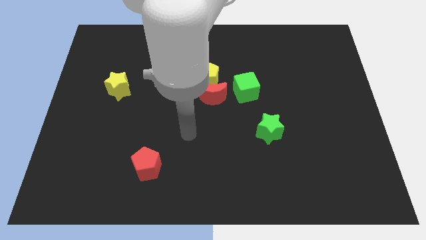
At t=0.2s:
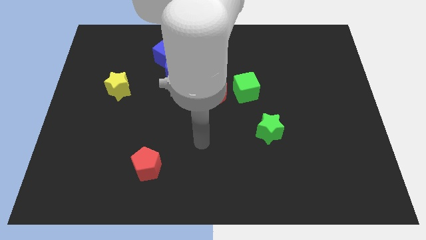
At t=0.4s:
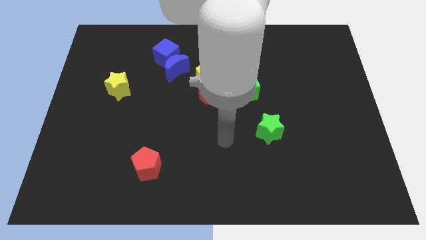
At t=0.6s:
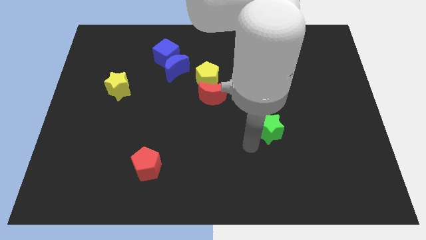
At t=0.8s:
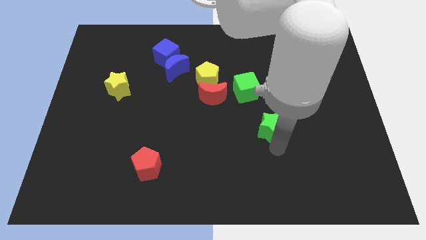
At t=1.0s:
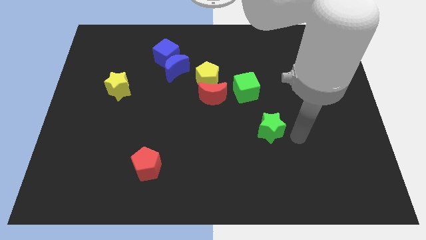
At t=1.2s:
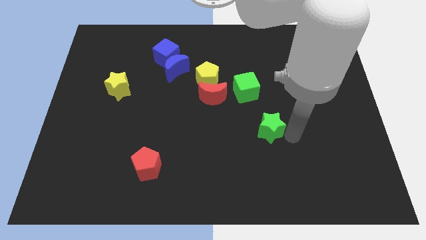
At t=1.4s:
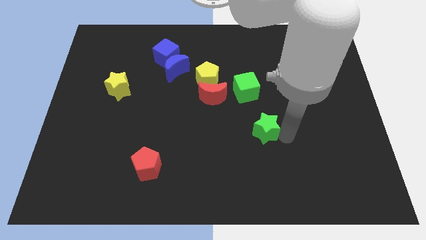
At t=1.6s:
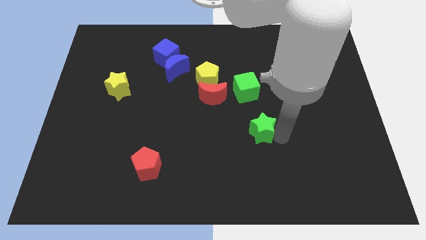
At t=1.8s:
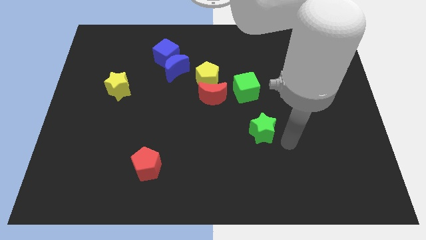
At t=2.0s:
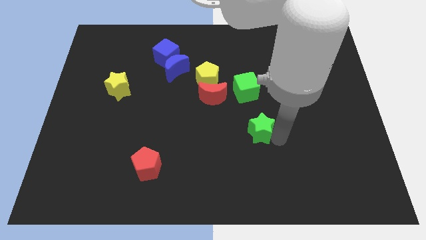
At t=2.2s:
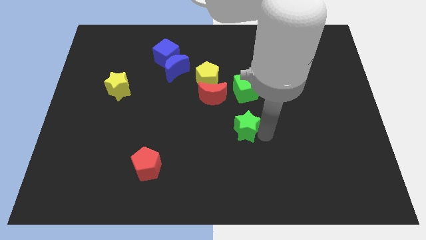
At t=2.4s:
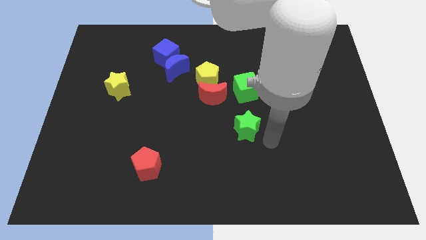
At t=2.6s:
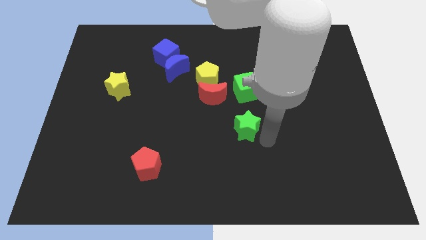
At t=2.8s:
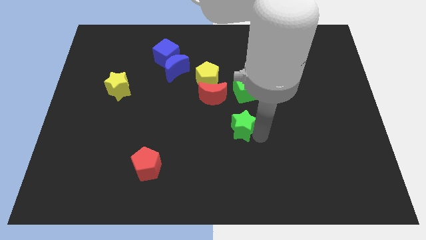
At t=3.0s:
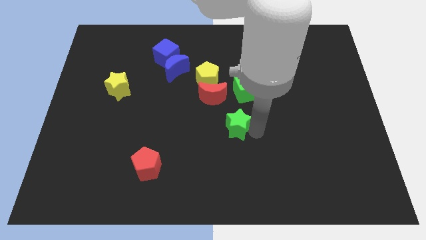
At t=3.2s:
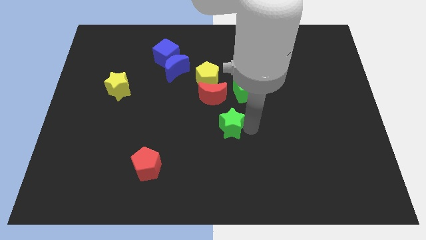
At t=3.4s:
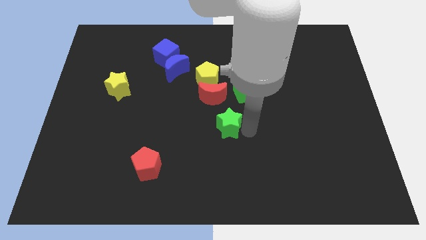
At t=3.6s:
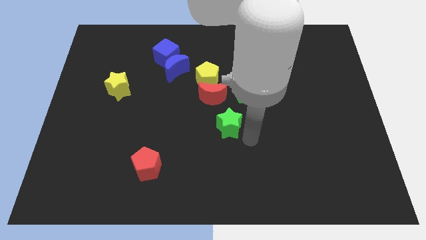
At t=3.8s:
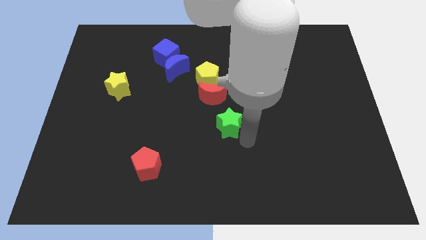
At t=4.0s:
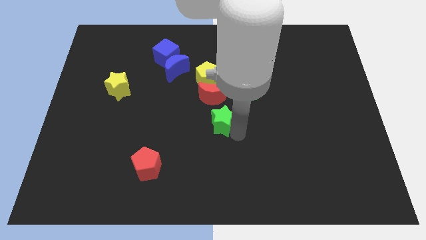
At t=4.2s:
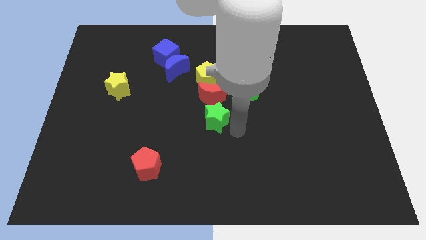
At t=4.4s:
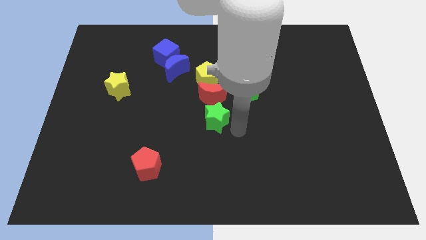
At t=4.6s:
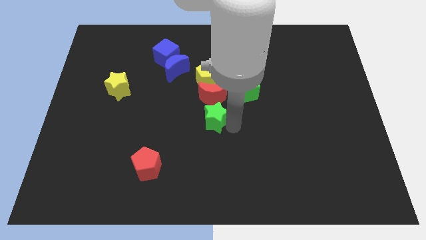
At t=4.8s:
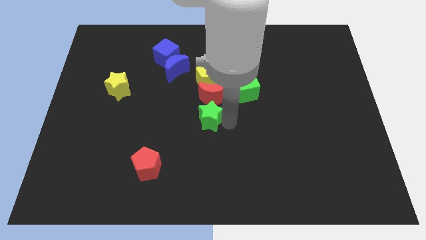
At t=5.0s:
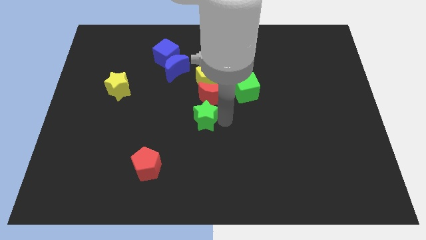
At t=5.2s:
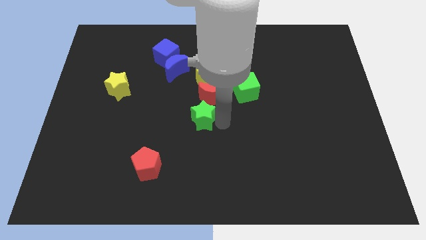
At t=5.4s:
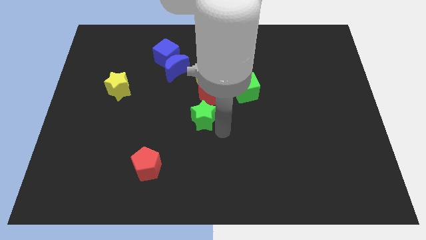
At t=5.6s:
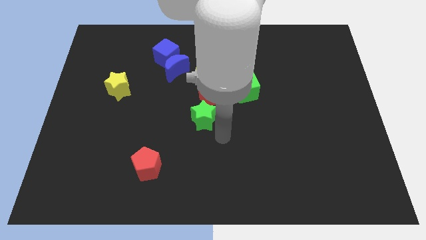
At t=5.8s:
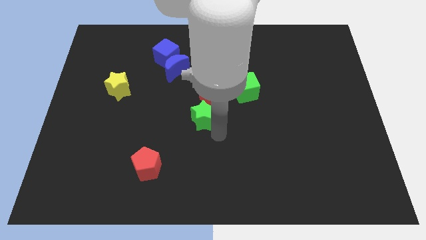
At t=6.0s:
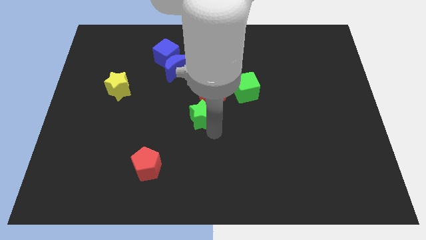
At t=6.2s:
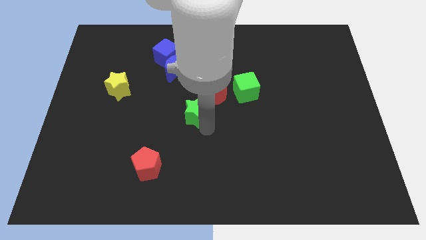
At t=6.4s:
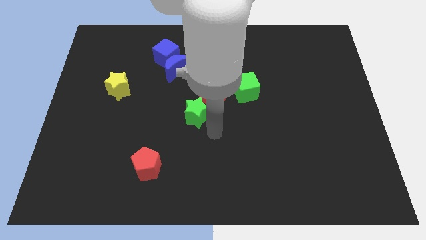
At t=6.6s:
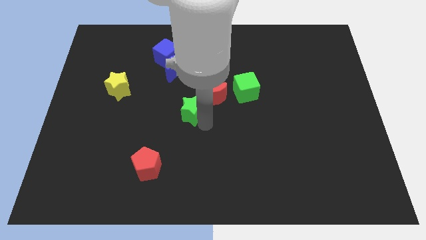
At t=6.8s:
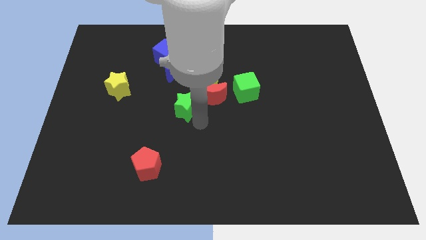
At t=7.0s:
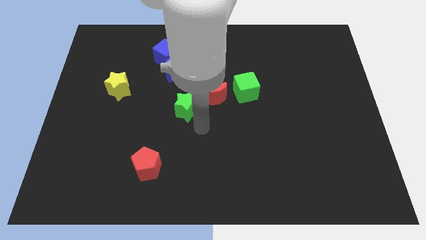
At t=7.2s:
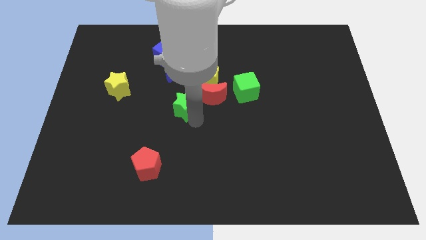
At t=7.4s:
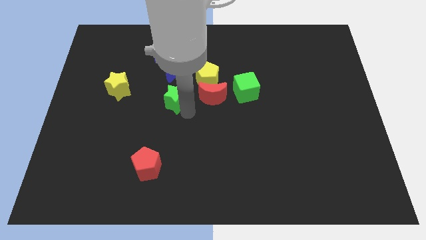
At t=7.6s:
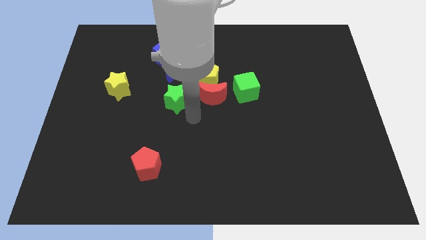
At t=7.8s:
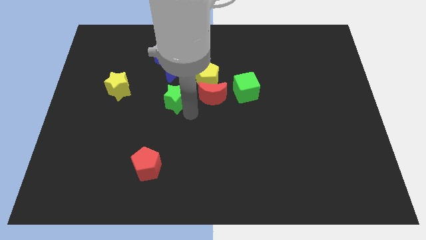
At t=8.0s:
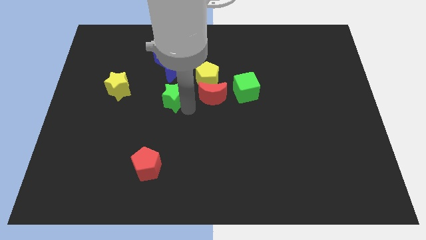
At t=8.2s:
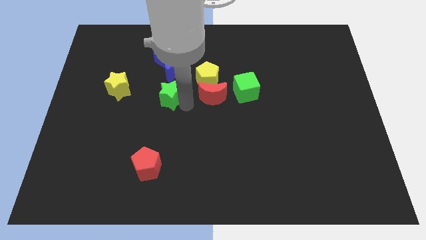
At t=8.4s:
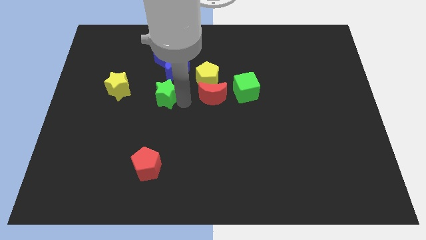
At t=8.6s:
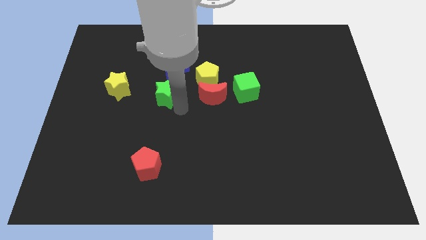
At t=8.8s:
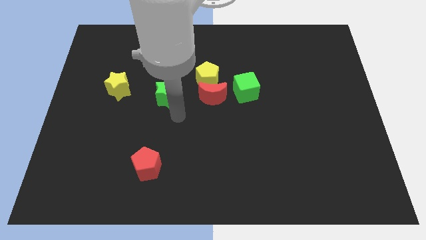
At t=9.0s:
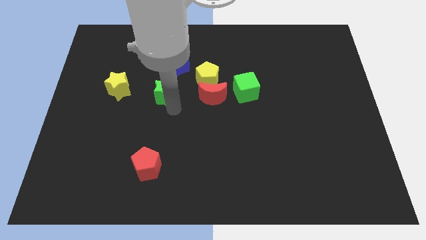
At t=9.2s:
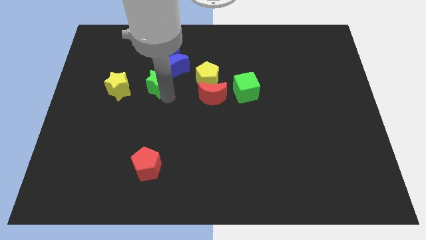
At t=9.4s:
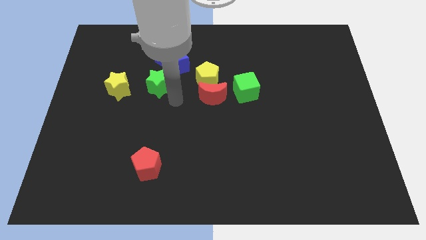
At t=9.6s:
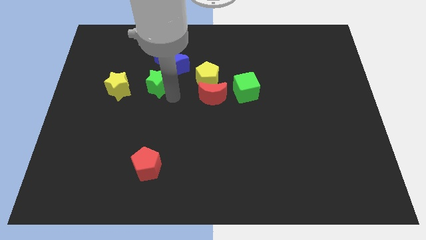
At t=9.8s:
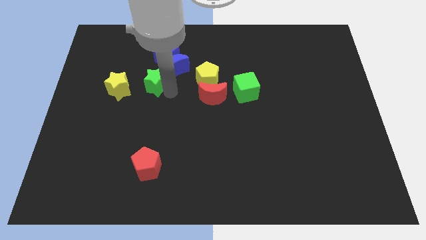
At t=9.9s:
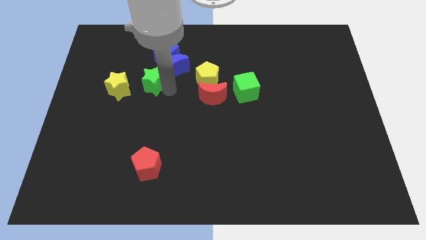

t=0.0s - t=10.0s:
move the green star to the top right of the yellow star

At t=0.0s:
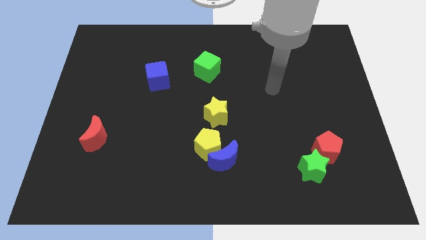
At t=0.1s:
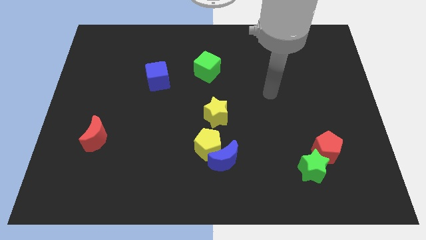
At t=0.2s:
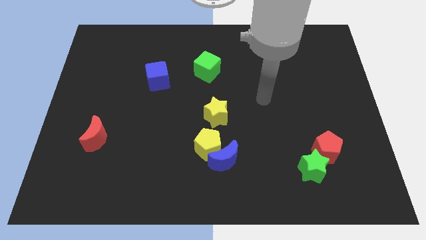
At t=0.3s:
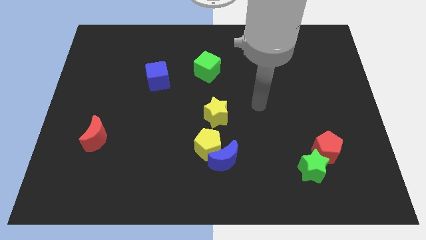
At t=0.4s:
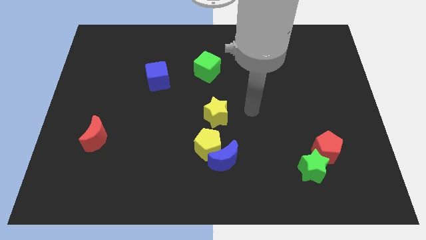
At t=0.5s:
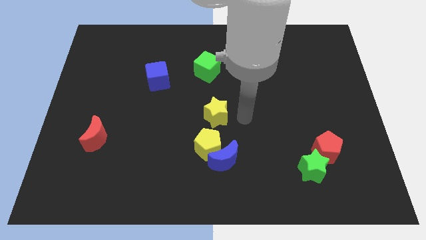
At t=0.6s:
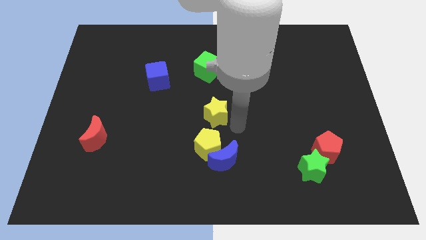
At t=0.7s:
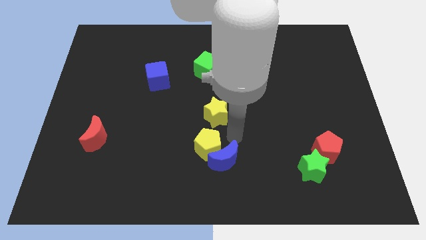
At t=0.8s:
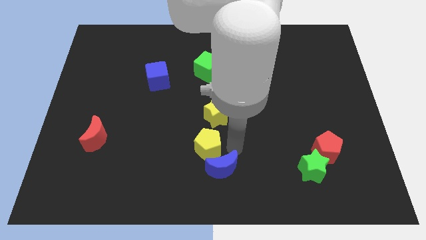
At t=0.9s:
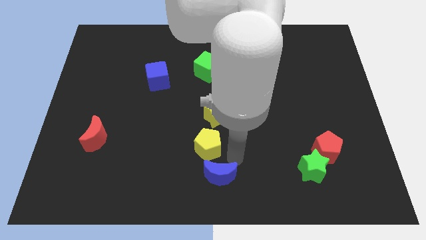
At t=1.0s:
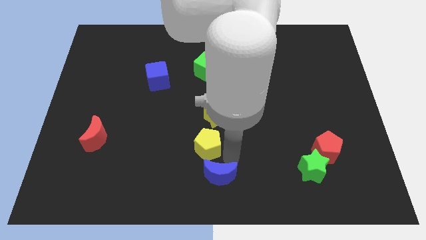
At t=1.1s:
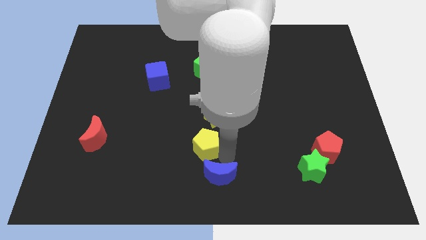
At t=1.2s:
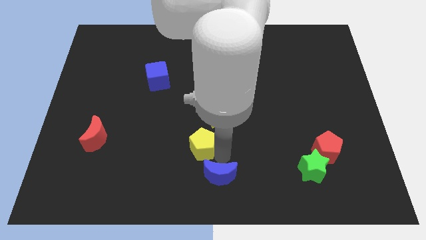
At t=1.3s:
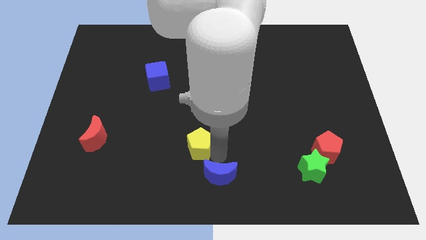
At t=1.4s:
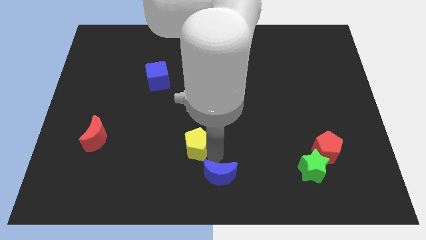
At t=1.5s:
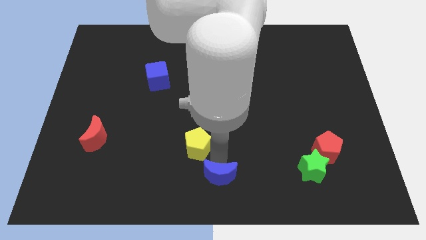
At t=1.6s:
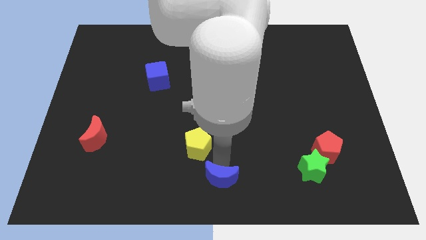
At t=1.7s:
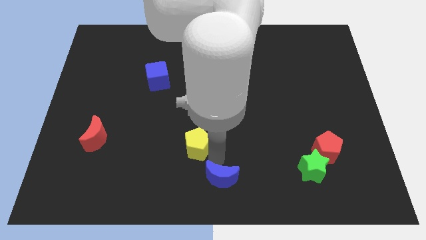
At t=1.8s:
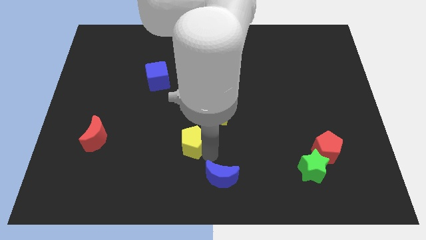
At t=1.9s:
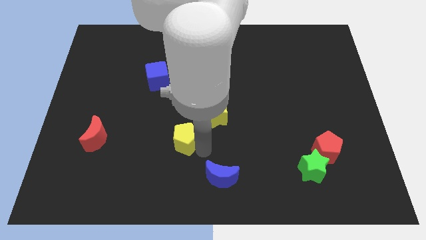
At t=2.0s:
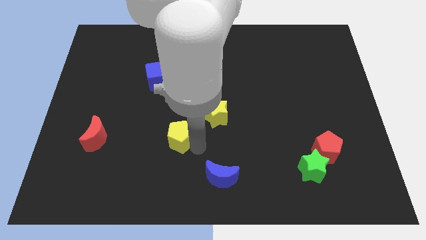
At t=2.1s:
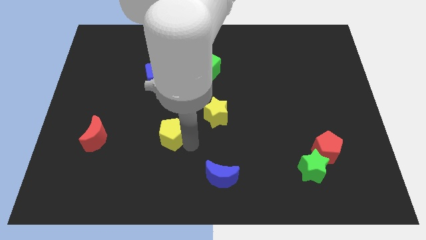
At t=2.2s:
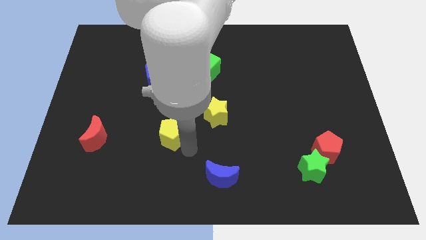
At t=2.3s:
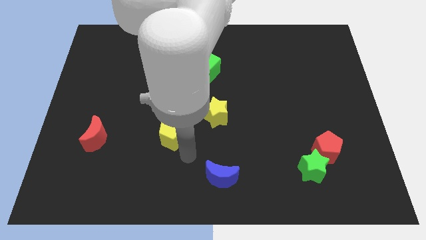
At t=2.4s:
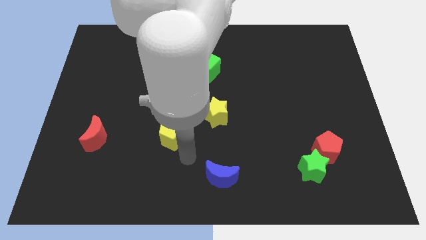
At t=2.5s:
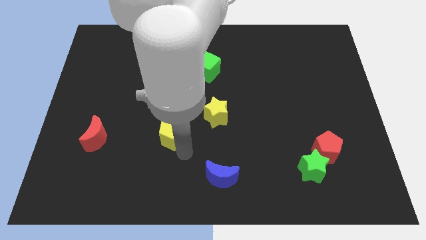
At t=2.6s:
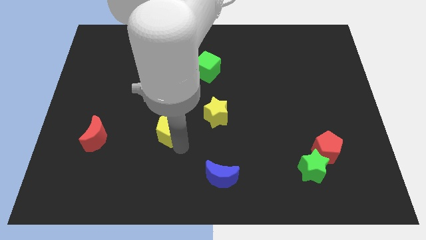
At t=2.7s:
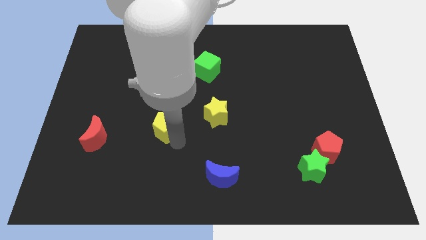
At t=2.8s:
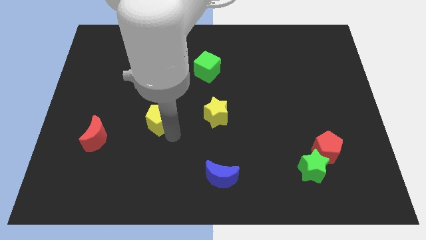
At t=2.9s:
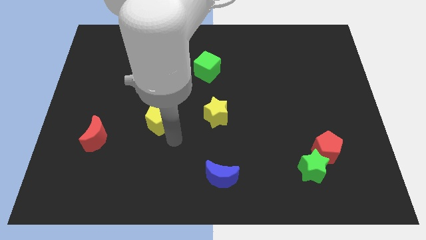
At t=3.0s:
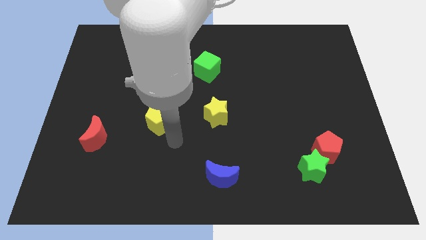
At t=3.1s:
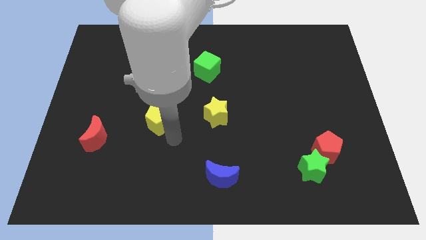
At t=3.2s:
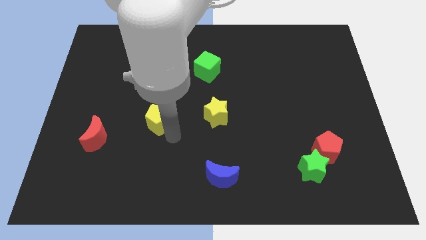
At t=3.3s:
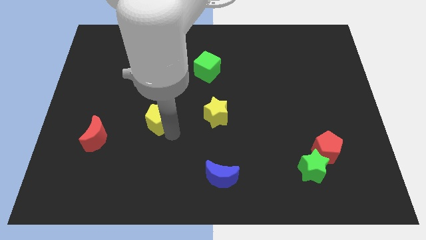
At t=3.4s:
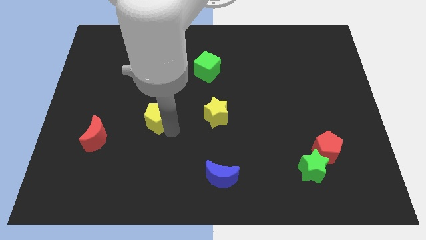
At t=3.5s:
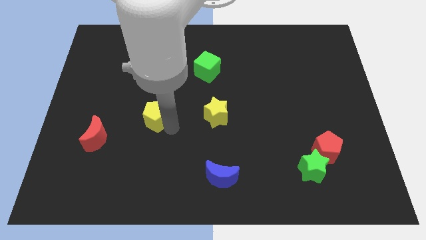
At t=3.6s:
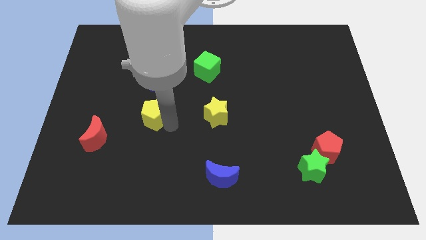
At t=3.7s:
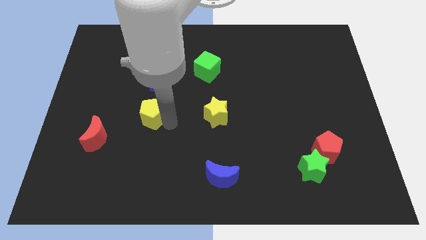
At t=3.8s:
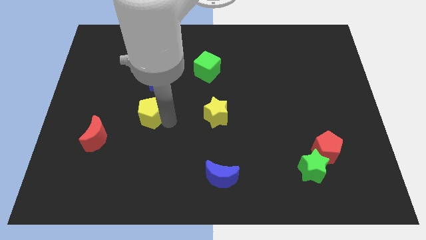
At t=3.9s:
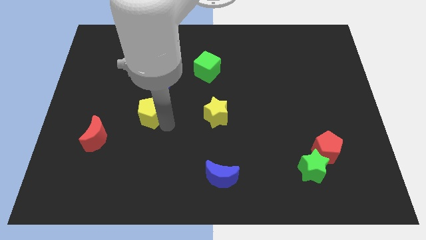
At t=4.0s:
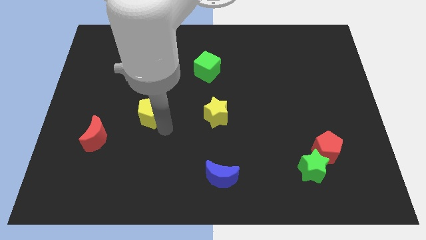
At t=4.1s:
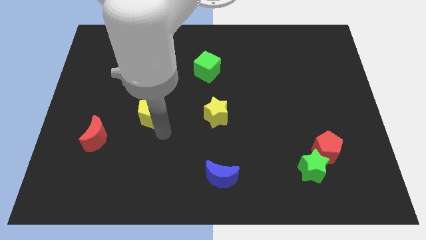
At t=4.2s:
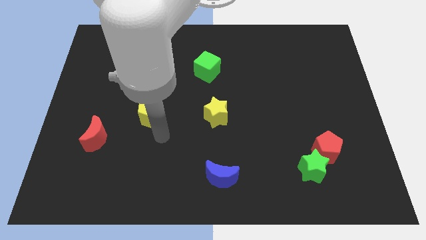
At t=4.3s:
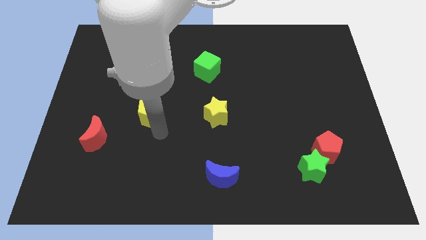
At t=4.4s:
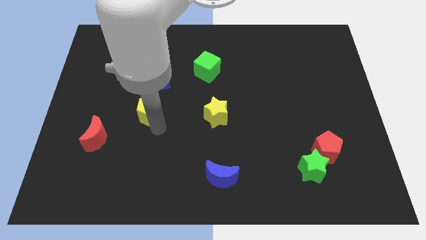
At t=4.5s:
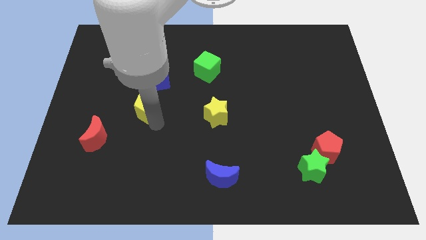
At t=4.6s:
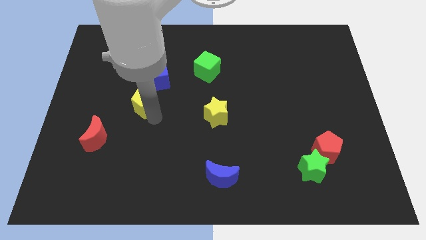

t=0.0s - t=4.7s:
move the yellow pentagon to the bottom left of the blue cube
